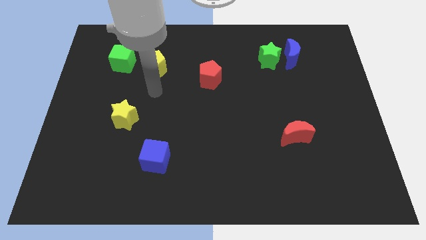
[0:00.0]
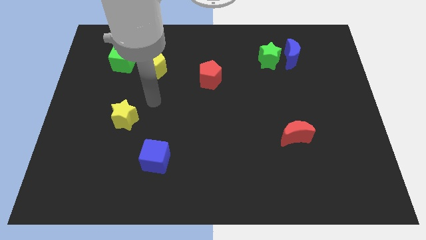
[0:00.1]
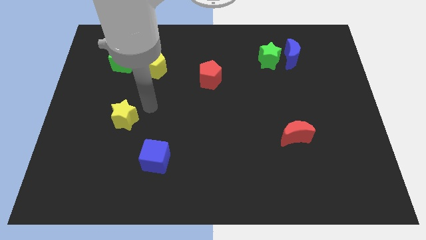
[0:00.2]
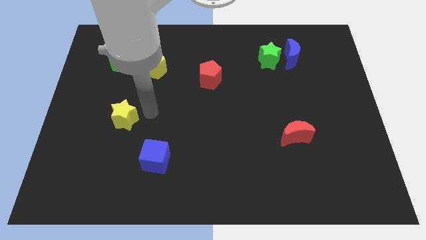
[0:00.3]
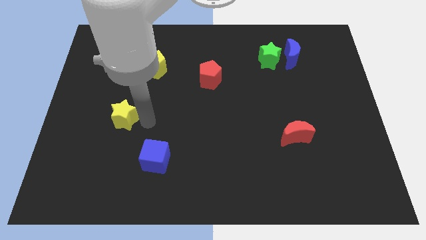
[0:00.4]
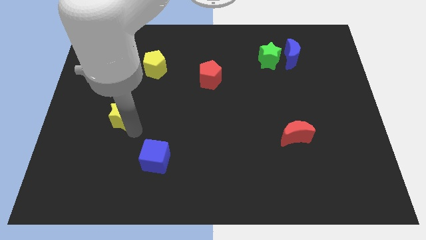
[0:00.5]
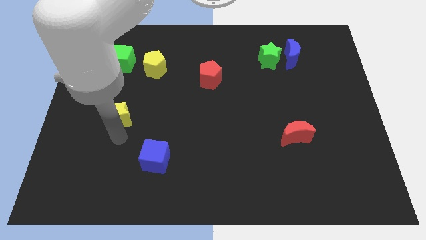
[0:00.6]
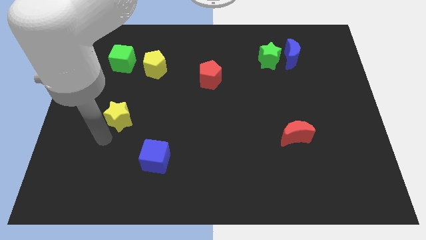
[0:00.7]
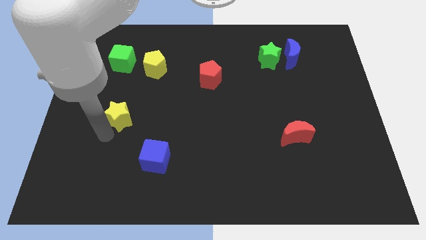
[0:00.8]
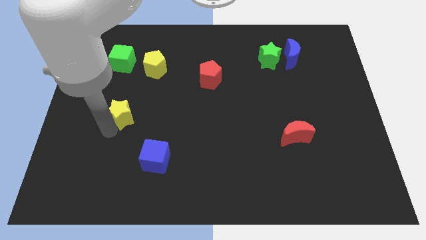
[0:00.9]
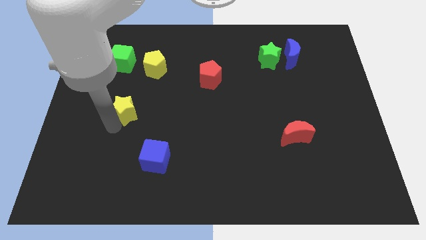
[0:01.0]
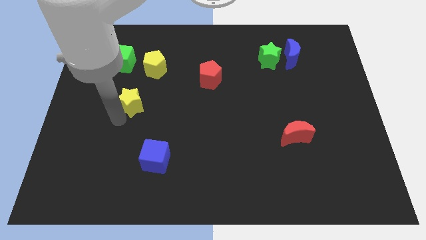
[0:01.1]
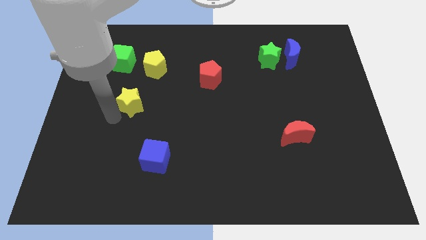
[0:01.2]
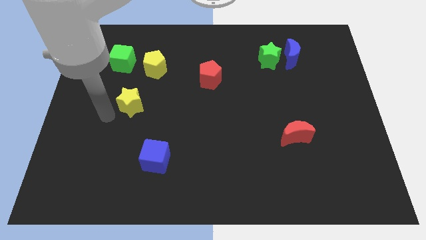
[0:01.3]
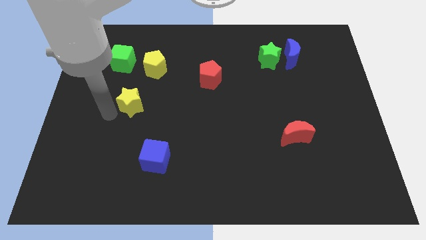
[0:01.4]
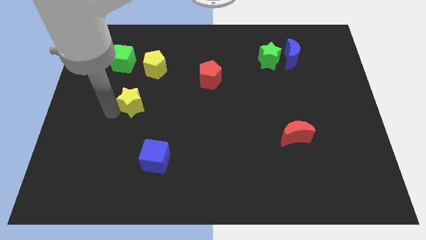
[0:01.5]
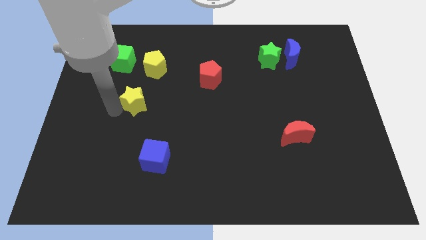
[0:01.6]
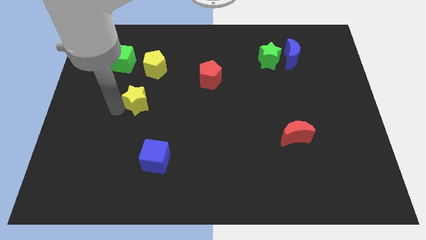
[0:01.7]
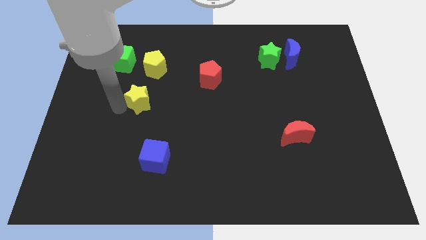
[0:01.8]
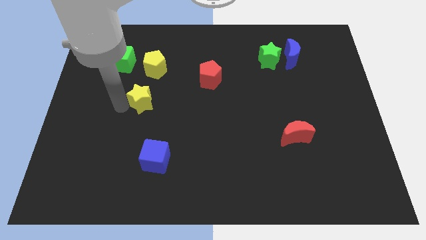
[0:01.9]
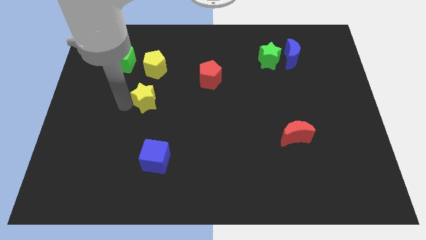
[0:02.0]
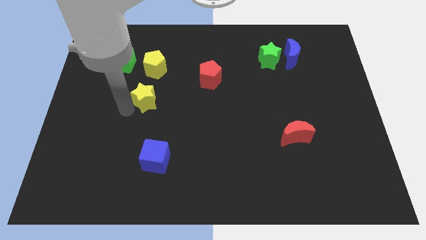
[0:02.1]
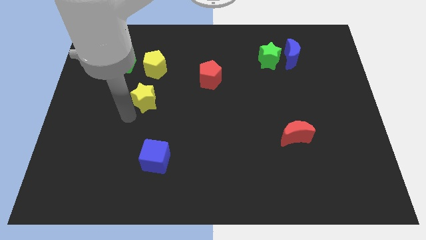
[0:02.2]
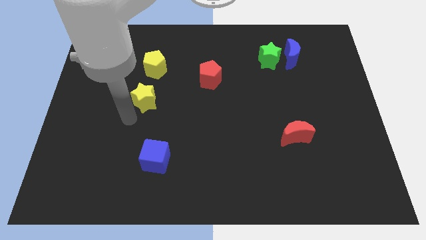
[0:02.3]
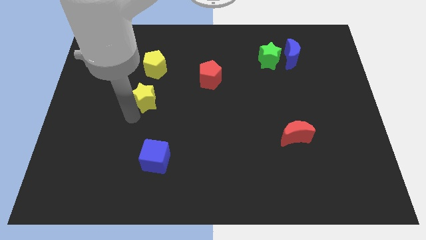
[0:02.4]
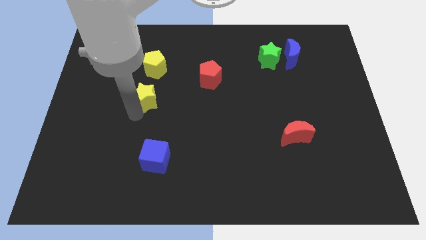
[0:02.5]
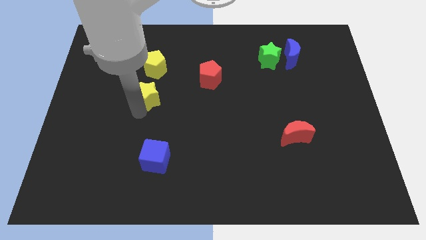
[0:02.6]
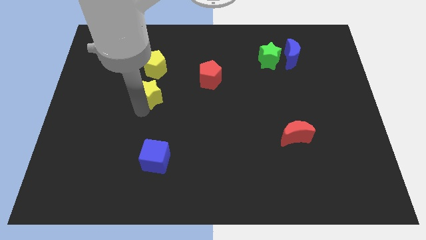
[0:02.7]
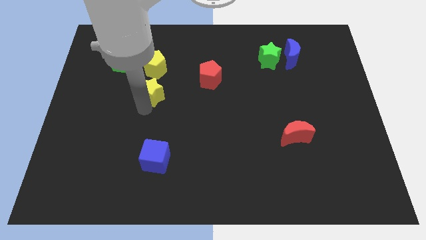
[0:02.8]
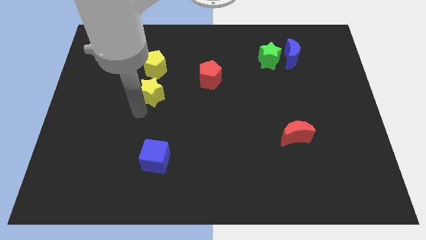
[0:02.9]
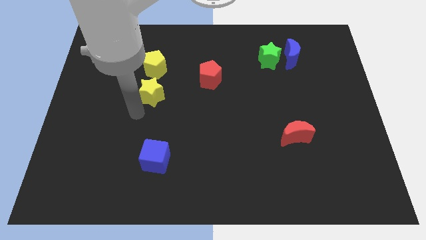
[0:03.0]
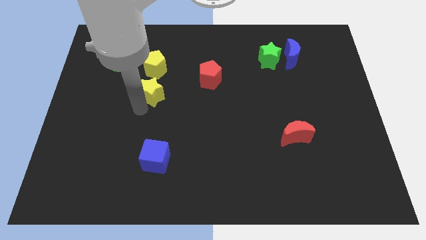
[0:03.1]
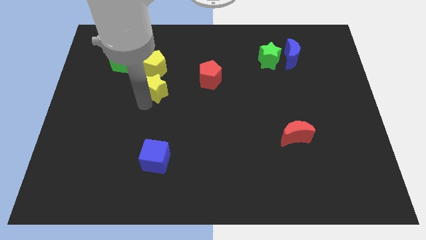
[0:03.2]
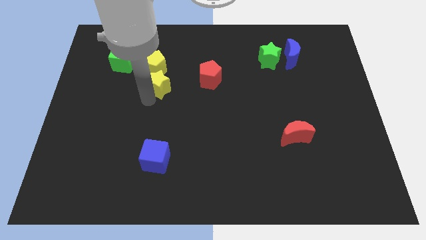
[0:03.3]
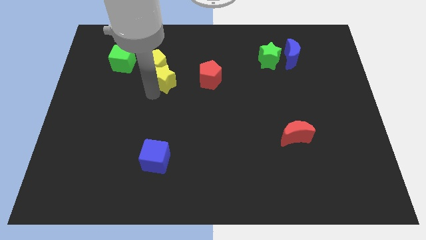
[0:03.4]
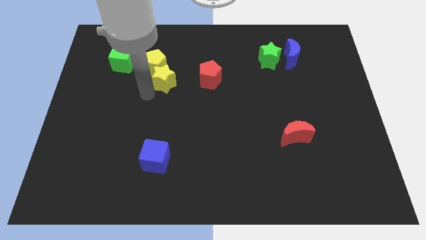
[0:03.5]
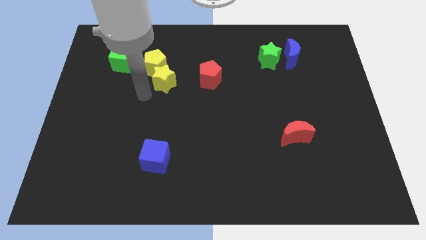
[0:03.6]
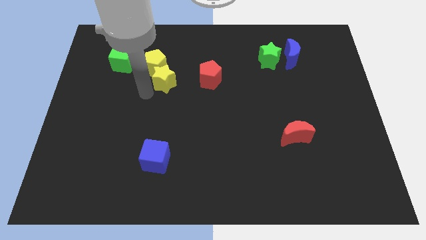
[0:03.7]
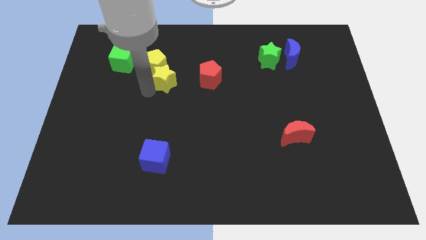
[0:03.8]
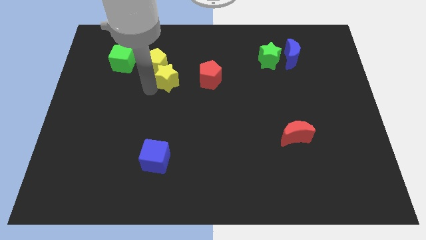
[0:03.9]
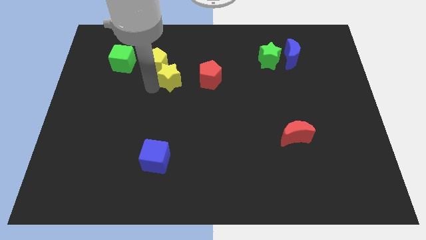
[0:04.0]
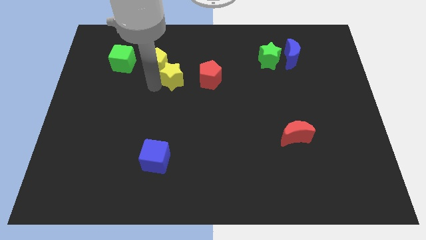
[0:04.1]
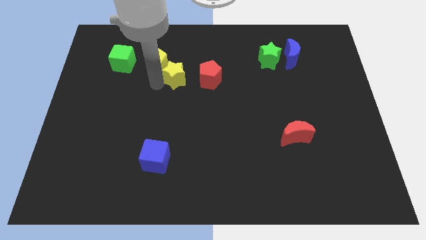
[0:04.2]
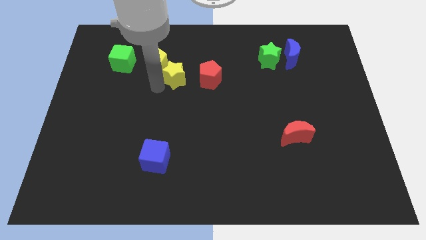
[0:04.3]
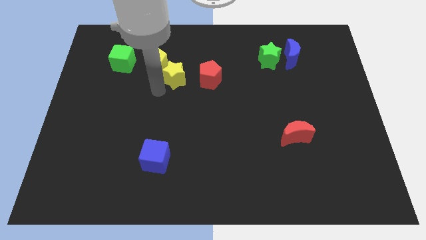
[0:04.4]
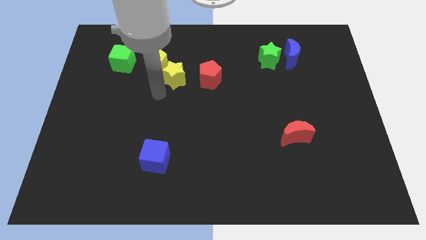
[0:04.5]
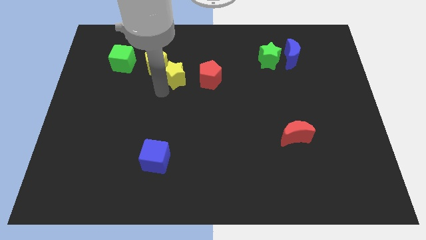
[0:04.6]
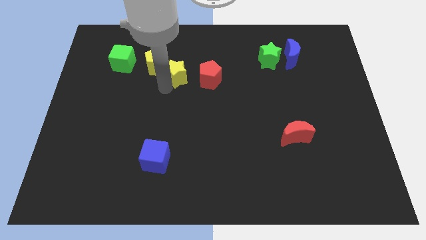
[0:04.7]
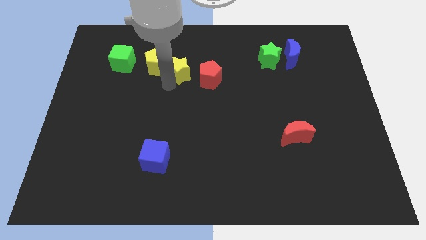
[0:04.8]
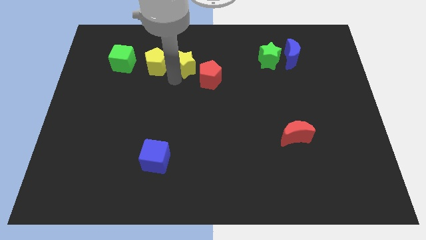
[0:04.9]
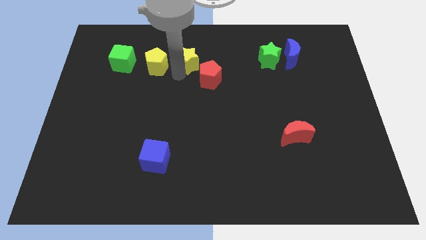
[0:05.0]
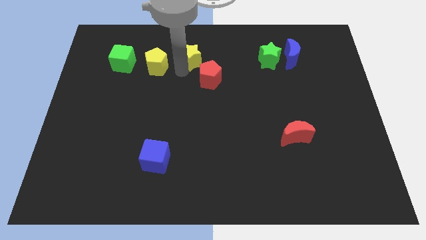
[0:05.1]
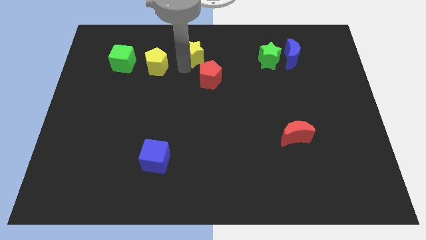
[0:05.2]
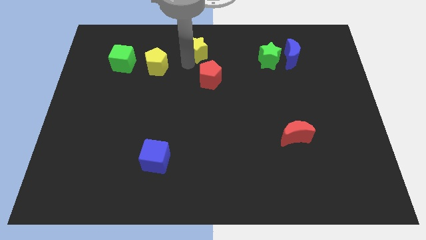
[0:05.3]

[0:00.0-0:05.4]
put the yellow star to the top side
